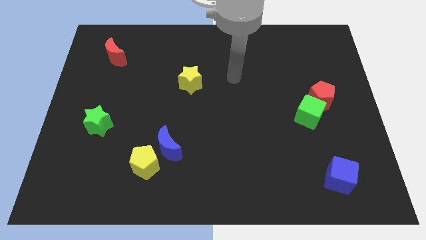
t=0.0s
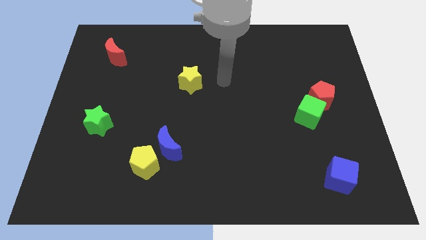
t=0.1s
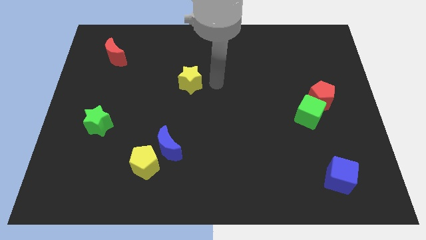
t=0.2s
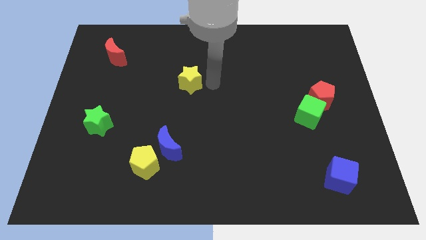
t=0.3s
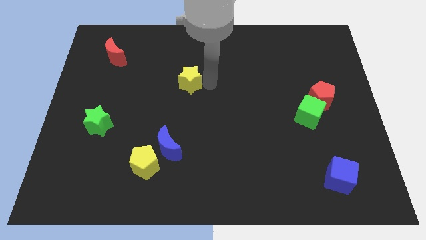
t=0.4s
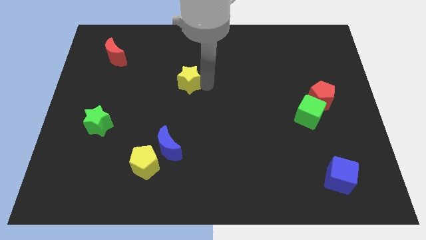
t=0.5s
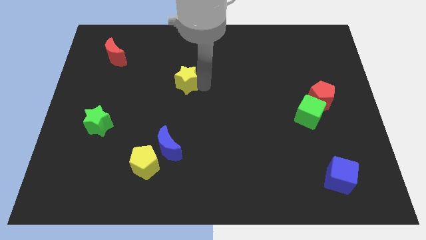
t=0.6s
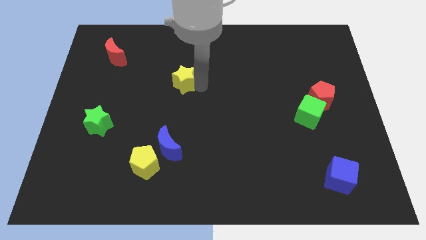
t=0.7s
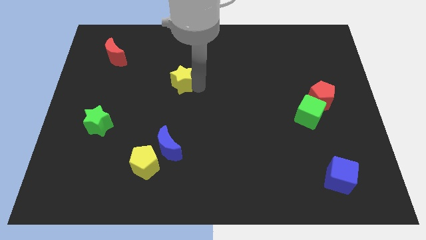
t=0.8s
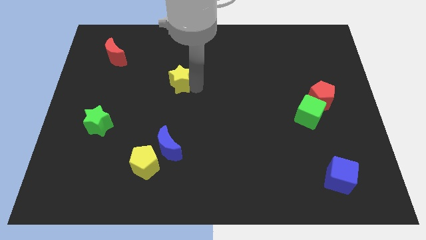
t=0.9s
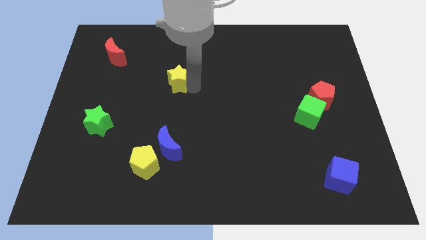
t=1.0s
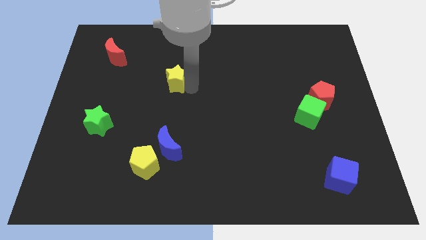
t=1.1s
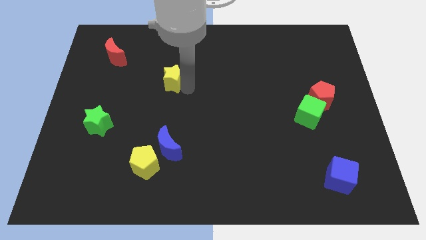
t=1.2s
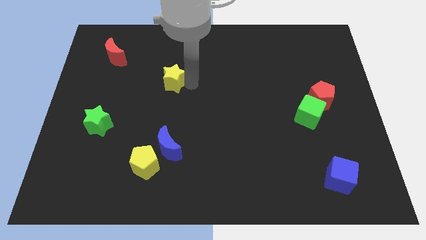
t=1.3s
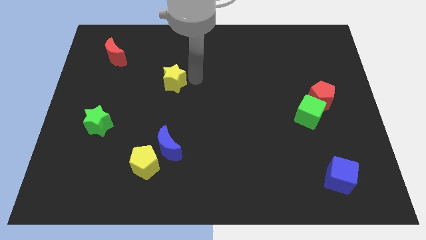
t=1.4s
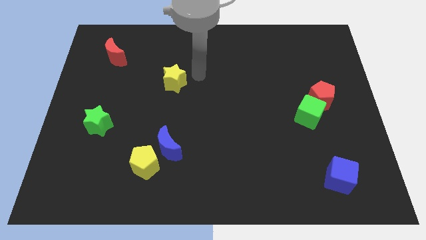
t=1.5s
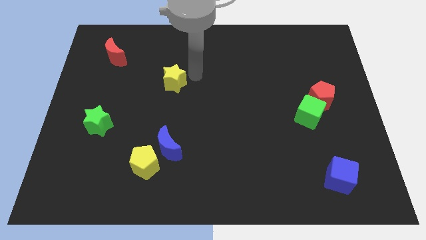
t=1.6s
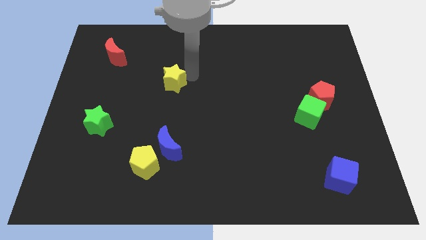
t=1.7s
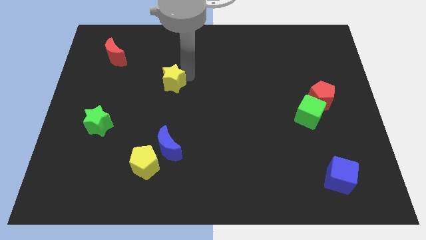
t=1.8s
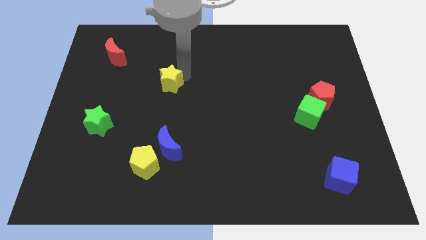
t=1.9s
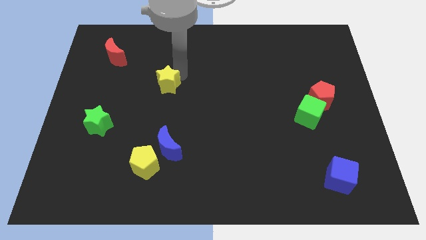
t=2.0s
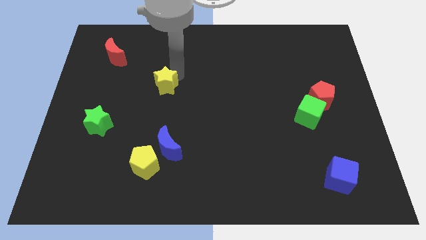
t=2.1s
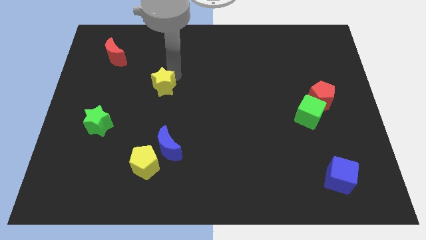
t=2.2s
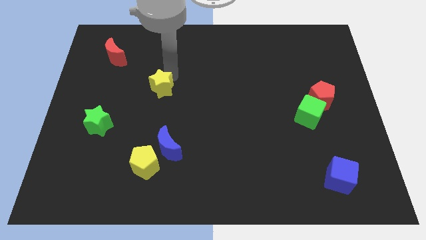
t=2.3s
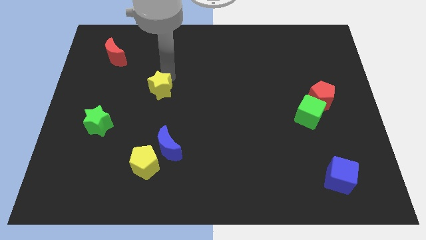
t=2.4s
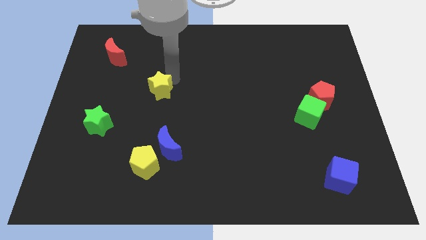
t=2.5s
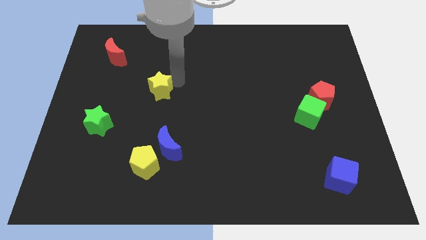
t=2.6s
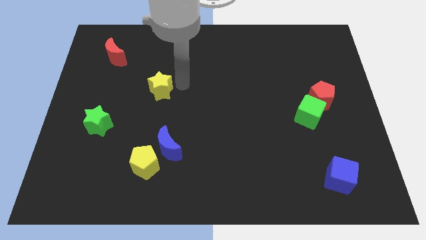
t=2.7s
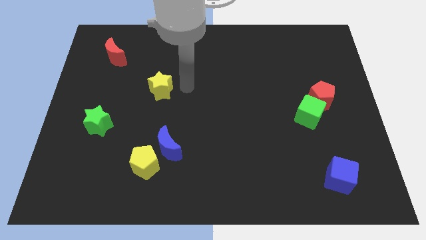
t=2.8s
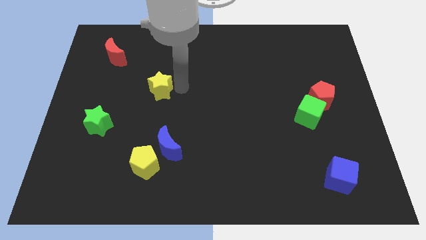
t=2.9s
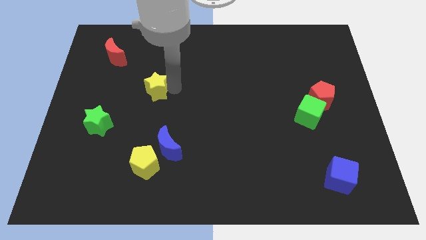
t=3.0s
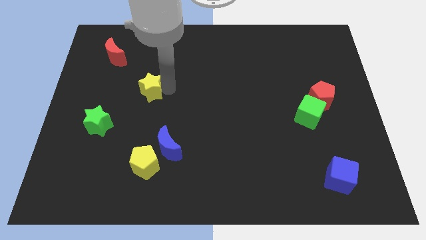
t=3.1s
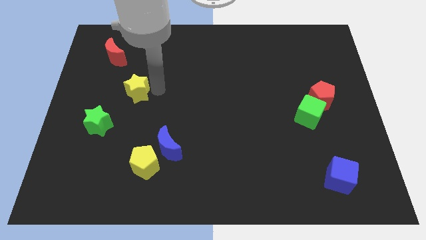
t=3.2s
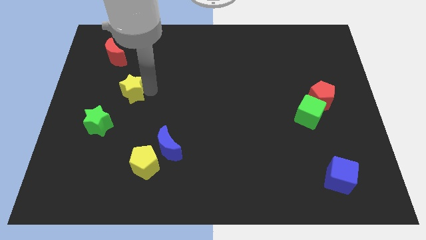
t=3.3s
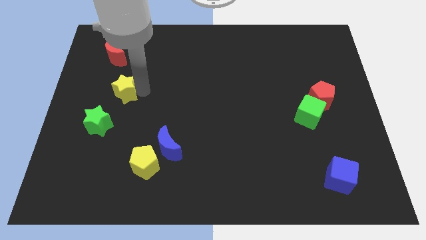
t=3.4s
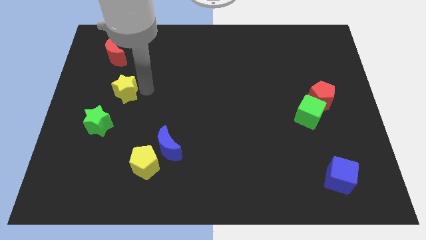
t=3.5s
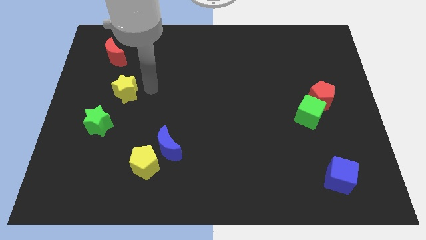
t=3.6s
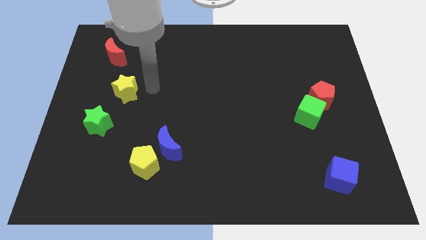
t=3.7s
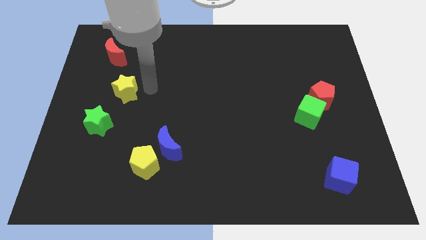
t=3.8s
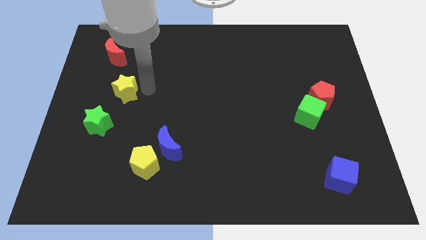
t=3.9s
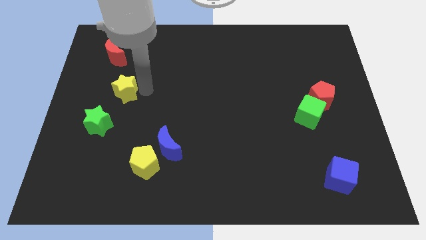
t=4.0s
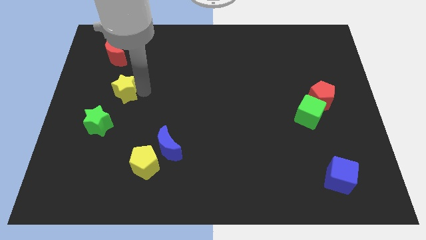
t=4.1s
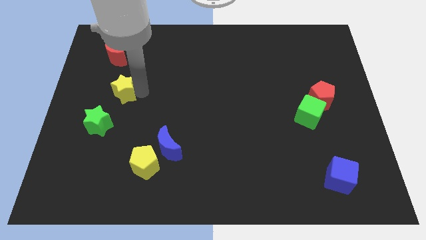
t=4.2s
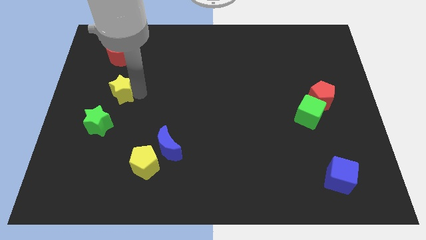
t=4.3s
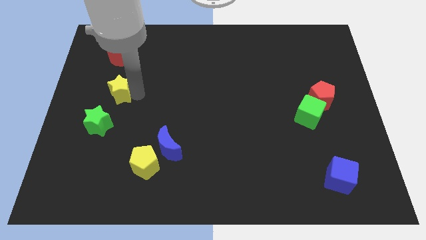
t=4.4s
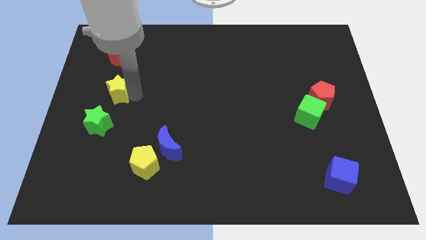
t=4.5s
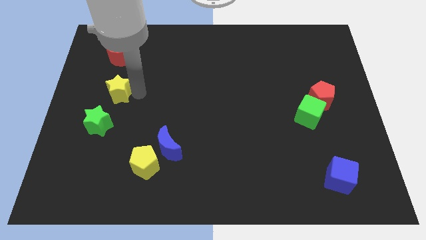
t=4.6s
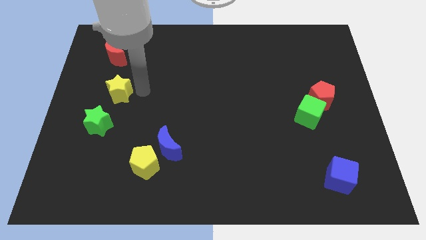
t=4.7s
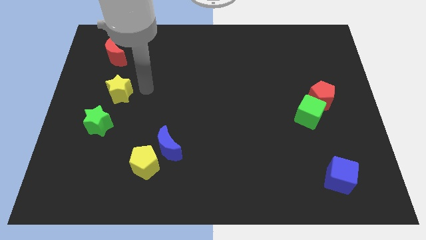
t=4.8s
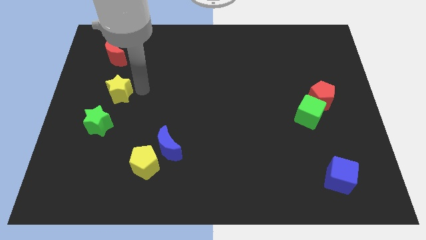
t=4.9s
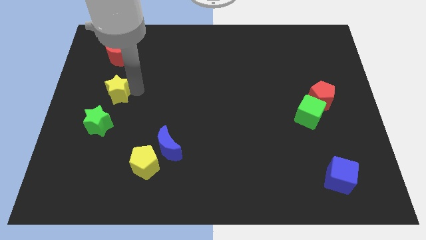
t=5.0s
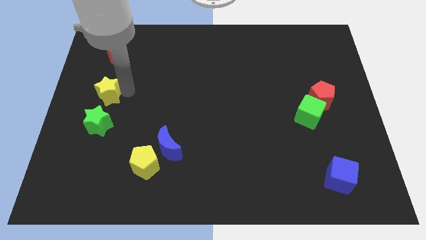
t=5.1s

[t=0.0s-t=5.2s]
push the yellow star to the left side of the board

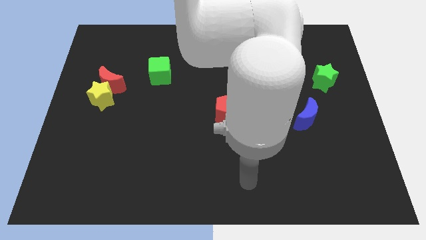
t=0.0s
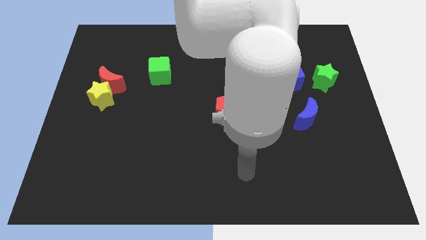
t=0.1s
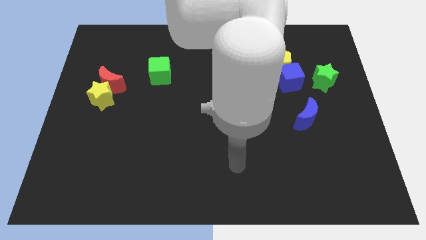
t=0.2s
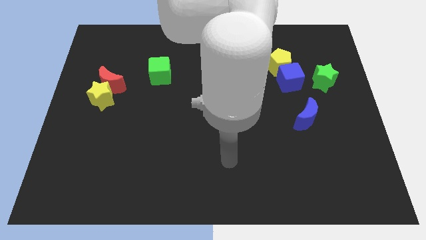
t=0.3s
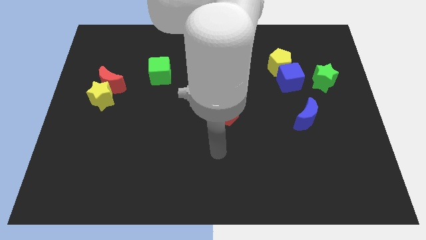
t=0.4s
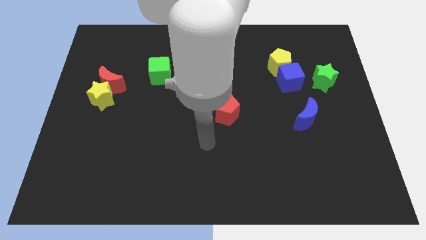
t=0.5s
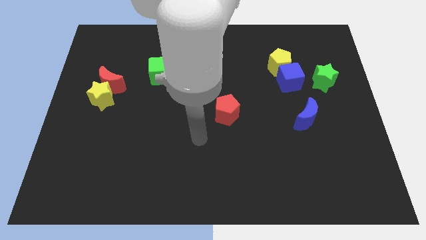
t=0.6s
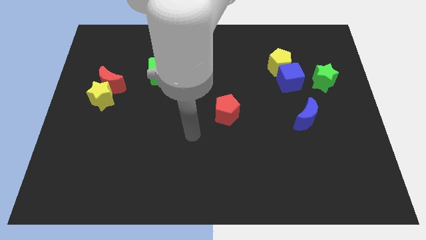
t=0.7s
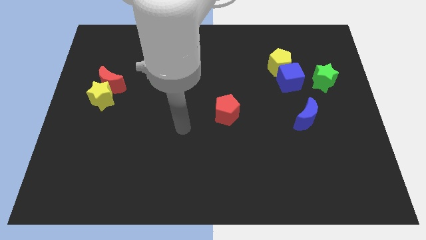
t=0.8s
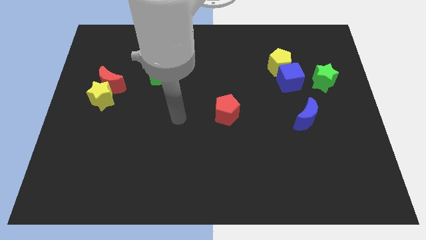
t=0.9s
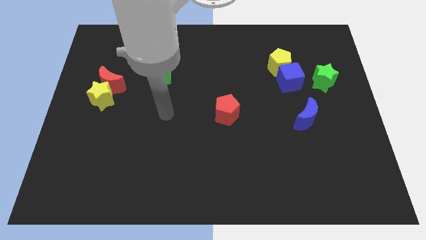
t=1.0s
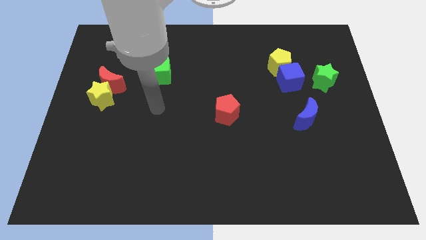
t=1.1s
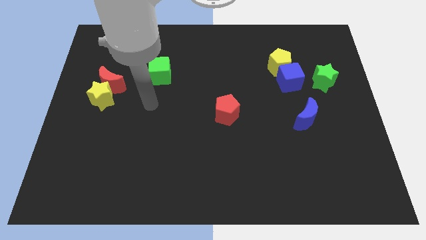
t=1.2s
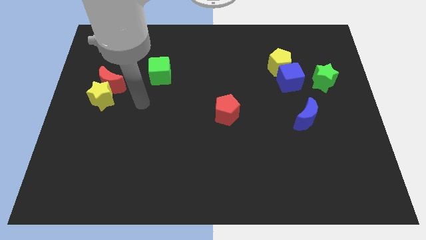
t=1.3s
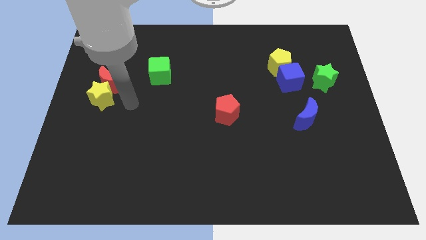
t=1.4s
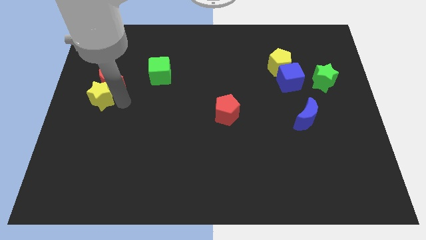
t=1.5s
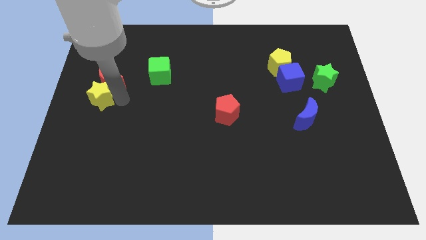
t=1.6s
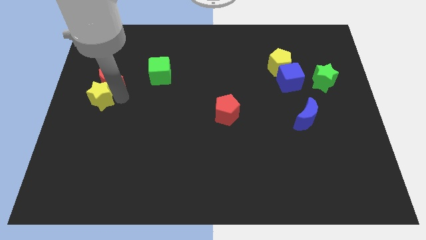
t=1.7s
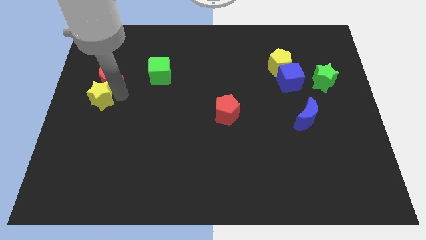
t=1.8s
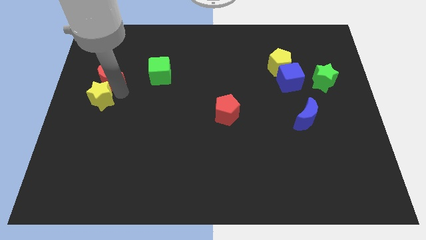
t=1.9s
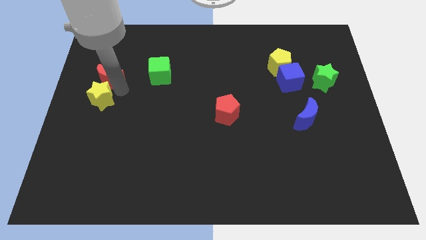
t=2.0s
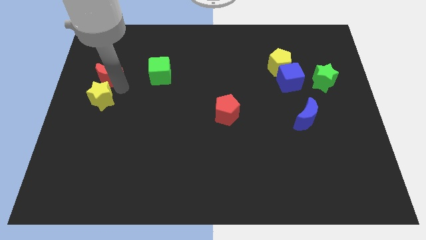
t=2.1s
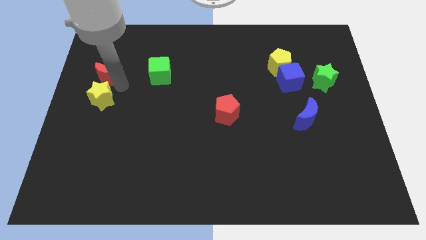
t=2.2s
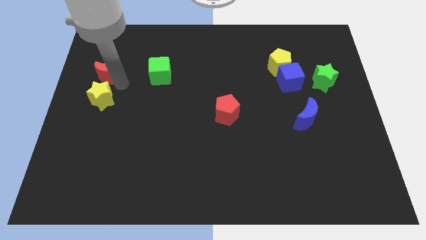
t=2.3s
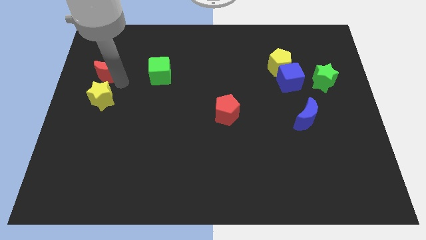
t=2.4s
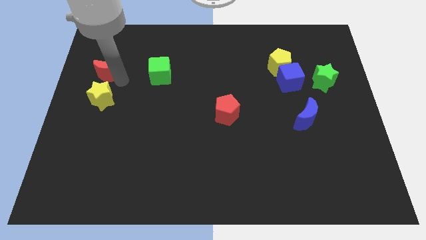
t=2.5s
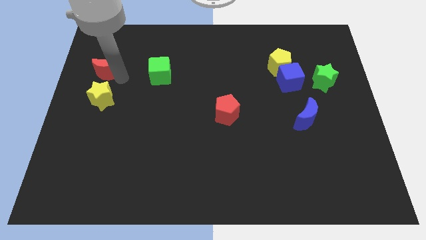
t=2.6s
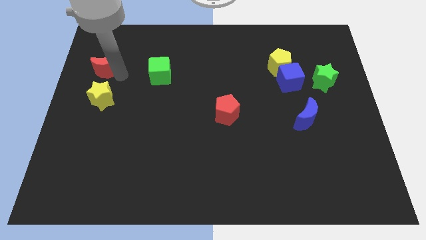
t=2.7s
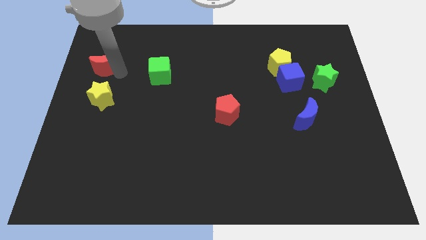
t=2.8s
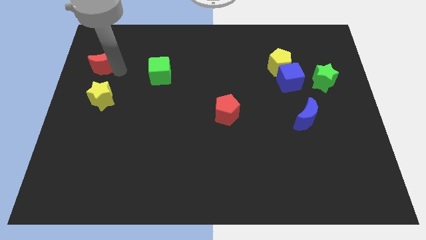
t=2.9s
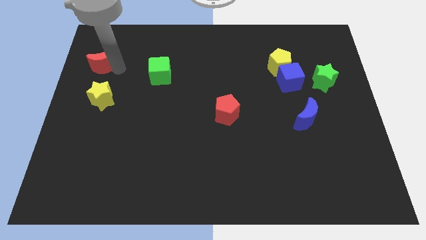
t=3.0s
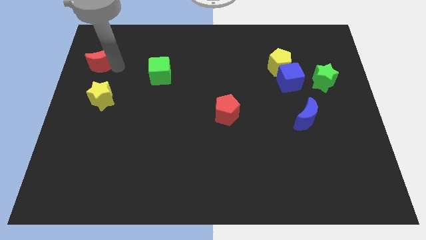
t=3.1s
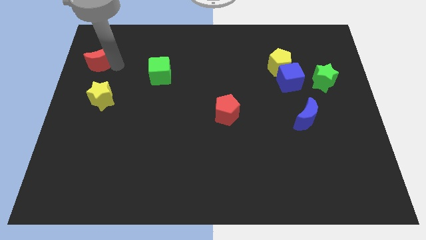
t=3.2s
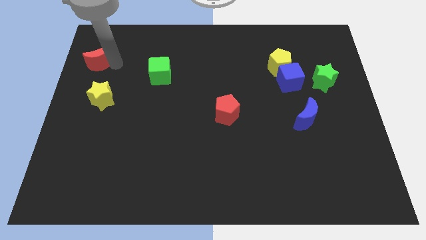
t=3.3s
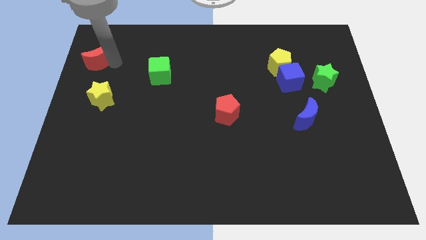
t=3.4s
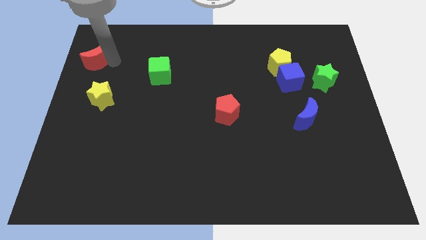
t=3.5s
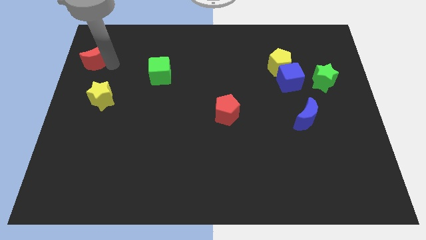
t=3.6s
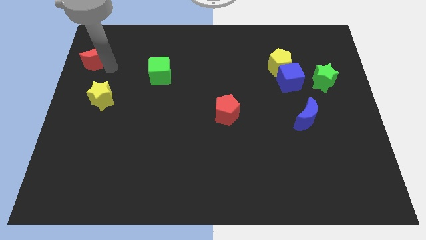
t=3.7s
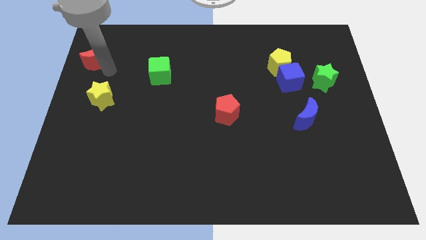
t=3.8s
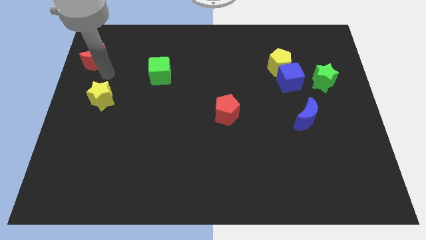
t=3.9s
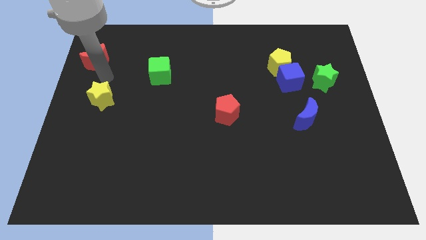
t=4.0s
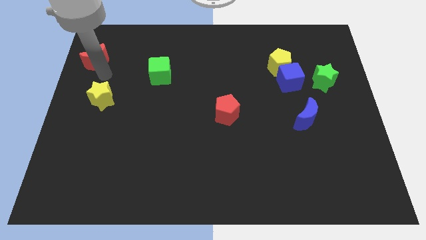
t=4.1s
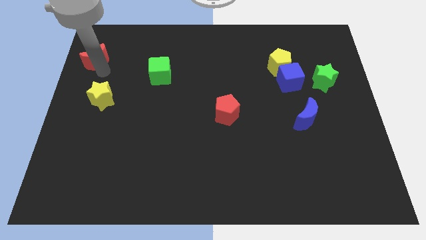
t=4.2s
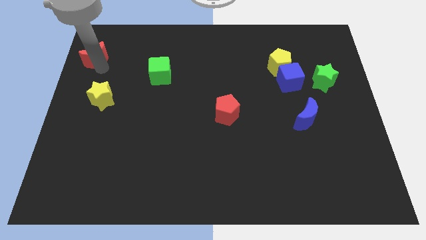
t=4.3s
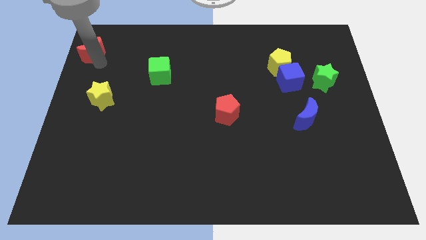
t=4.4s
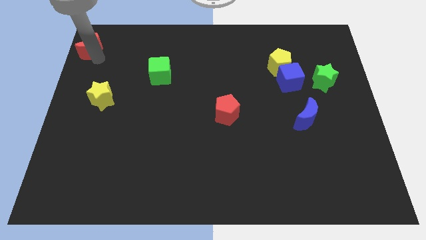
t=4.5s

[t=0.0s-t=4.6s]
push the red moon to the top left of the board
